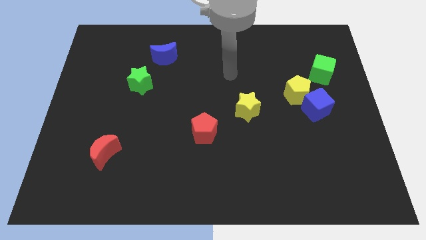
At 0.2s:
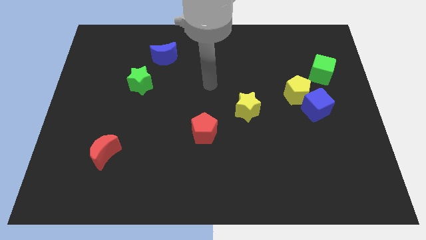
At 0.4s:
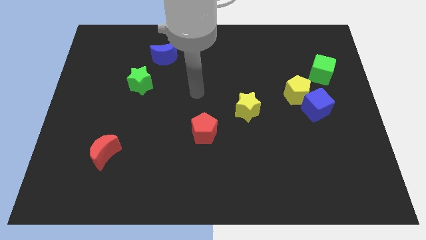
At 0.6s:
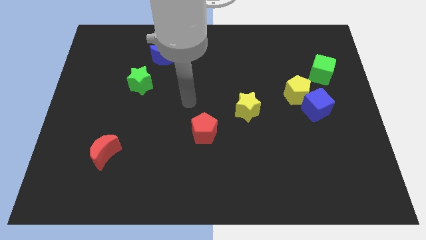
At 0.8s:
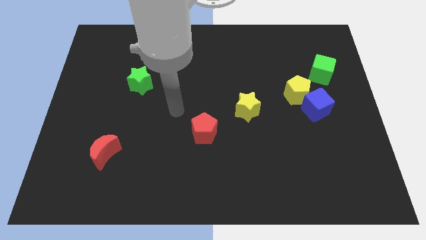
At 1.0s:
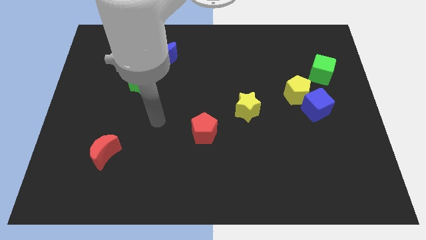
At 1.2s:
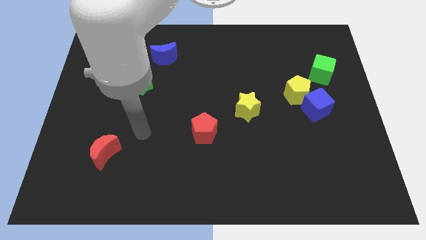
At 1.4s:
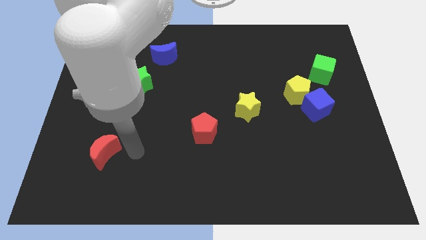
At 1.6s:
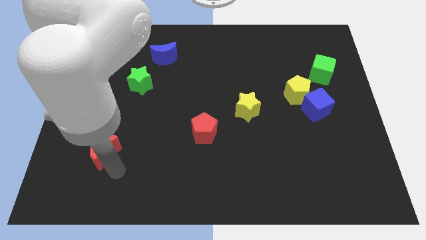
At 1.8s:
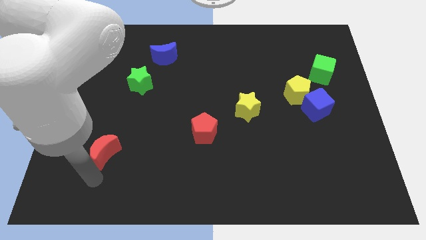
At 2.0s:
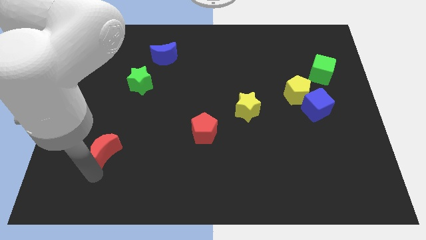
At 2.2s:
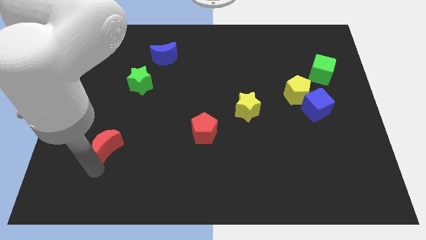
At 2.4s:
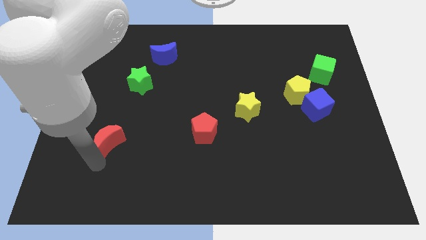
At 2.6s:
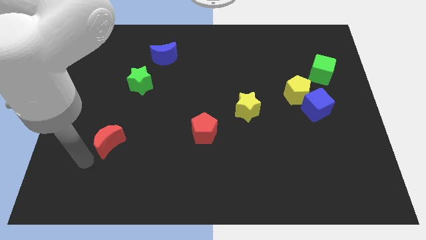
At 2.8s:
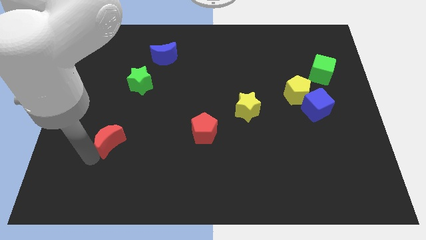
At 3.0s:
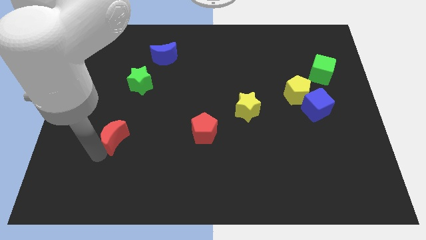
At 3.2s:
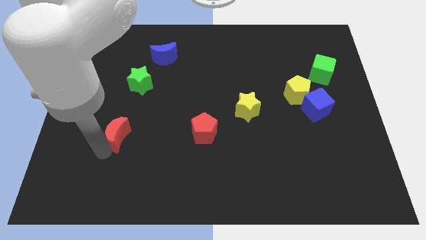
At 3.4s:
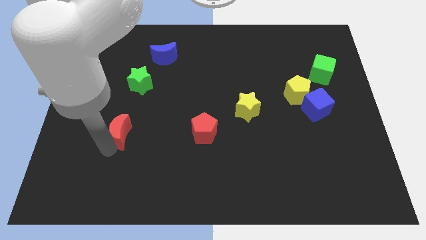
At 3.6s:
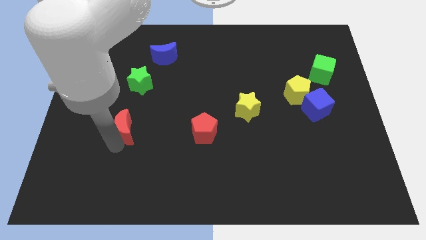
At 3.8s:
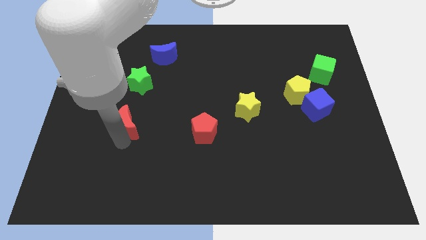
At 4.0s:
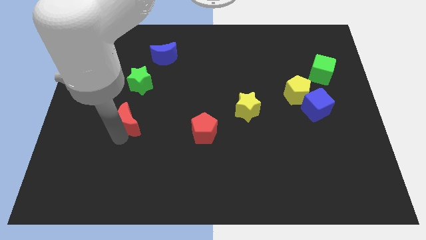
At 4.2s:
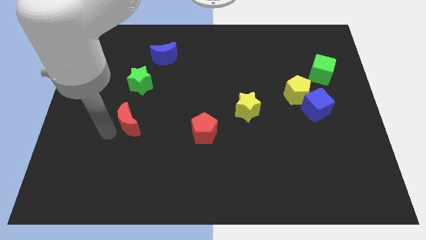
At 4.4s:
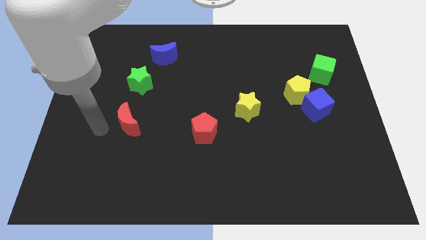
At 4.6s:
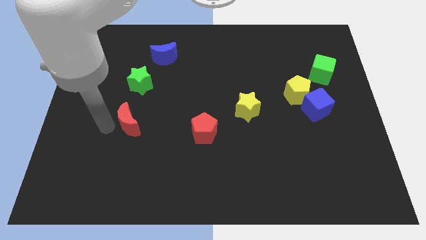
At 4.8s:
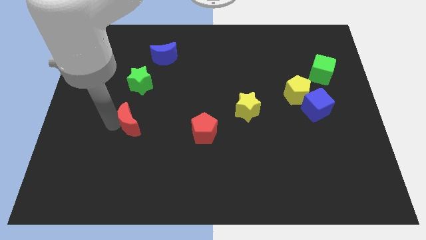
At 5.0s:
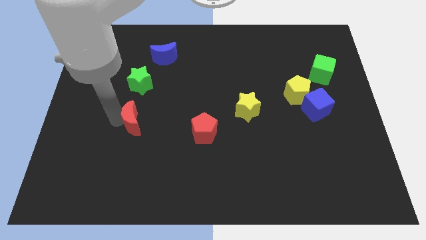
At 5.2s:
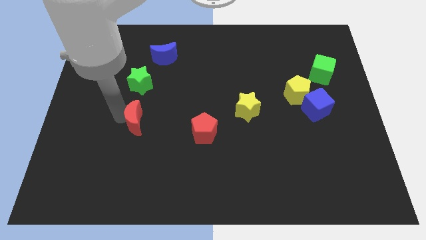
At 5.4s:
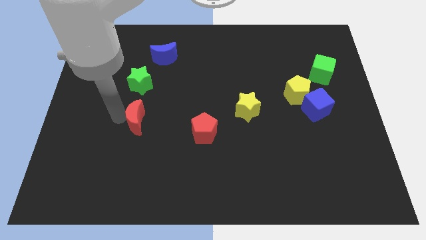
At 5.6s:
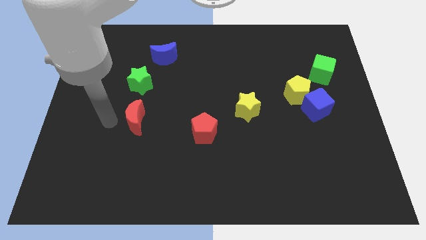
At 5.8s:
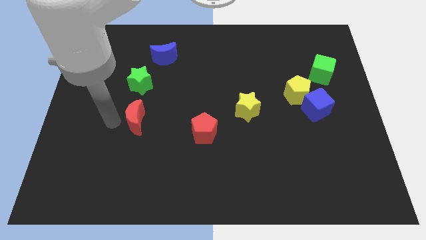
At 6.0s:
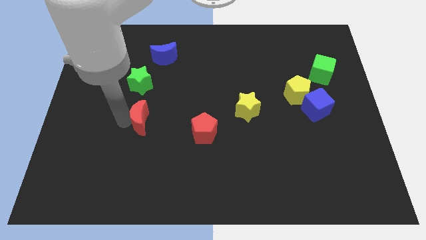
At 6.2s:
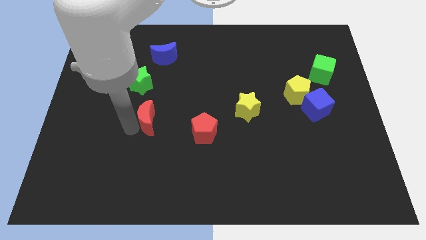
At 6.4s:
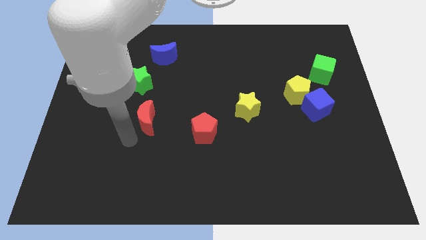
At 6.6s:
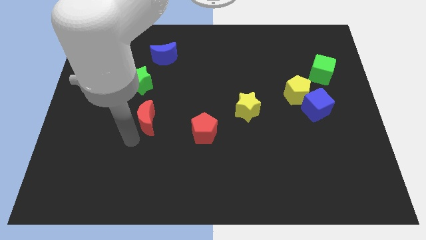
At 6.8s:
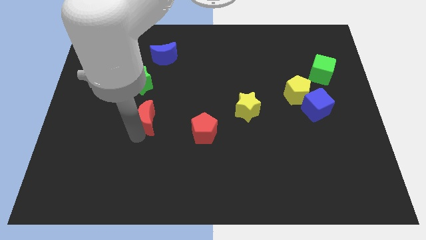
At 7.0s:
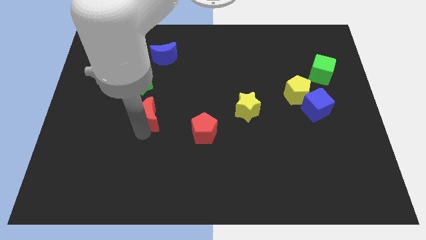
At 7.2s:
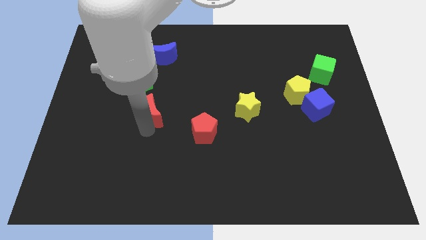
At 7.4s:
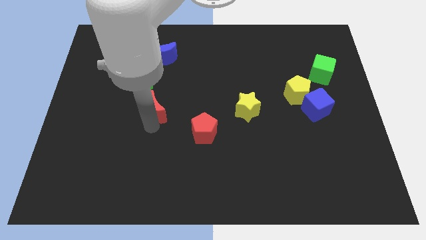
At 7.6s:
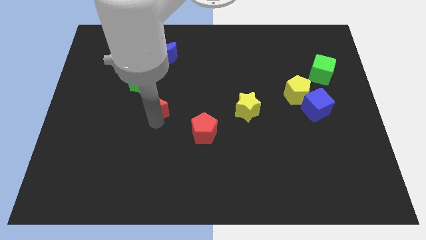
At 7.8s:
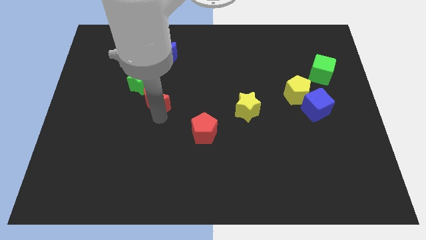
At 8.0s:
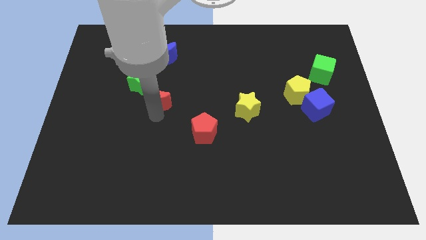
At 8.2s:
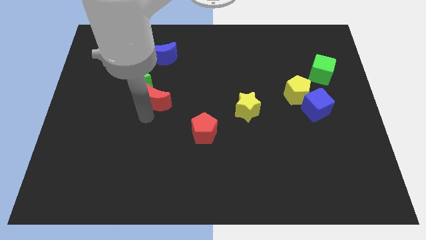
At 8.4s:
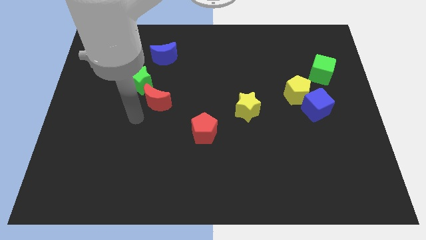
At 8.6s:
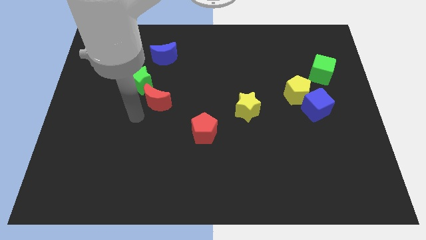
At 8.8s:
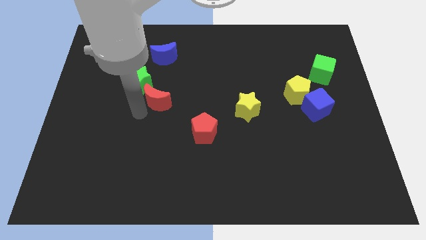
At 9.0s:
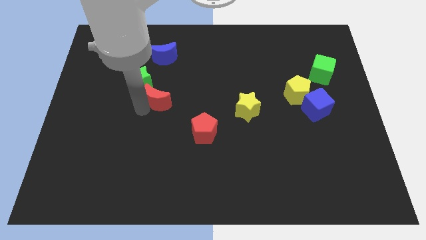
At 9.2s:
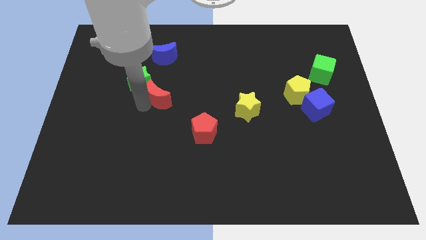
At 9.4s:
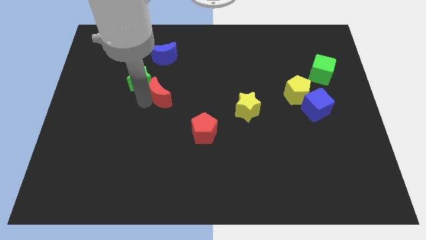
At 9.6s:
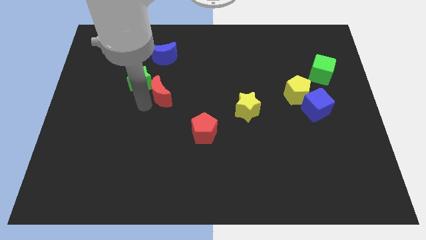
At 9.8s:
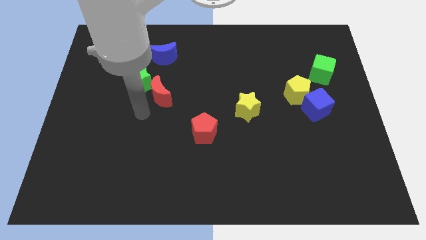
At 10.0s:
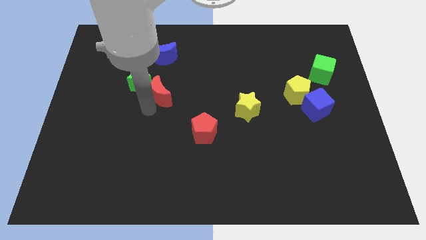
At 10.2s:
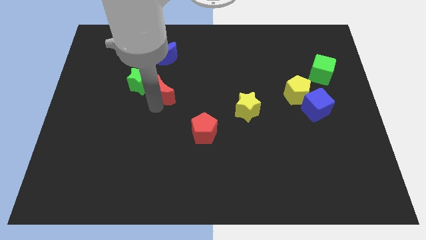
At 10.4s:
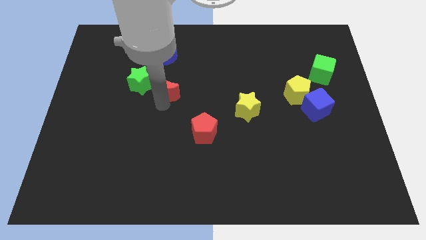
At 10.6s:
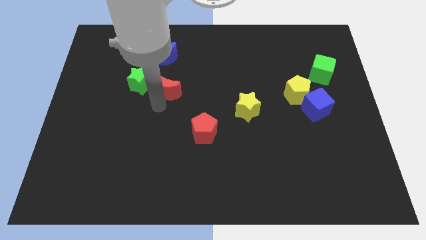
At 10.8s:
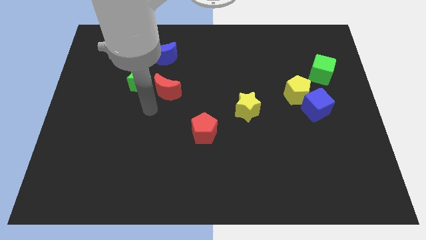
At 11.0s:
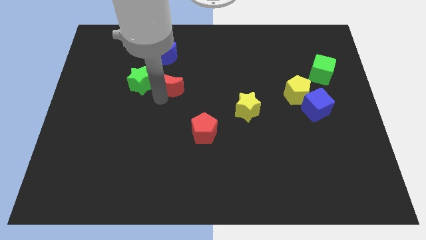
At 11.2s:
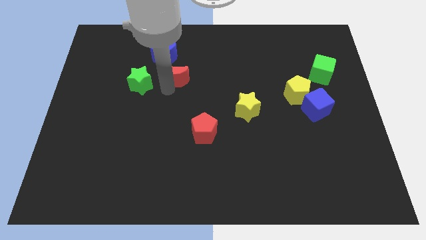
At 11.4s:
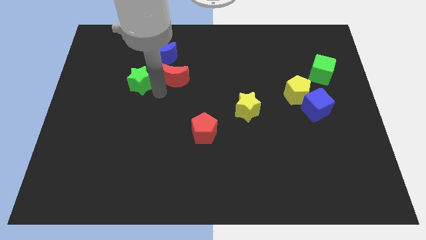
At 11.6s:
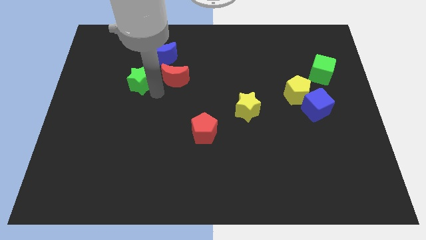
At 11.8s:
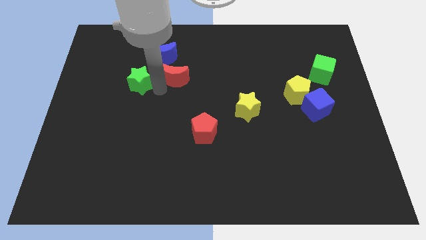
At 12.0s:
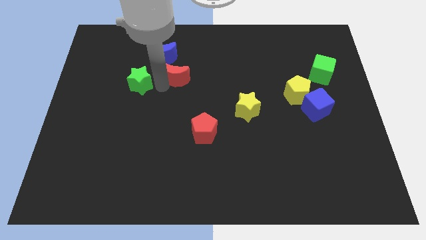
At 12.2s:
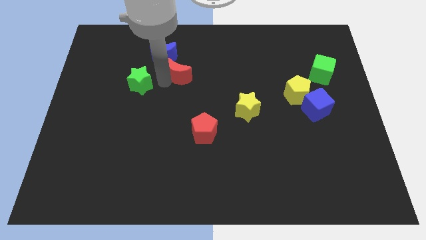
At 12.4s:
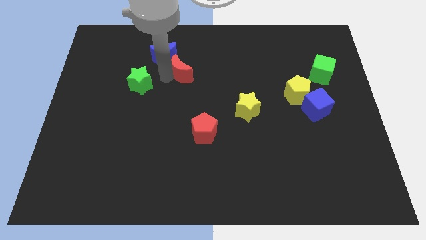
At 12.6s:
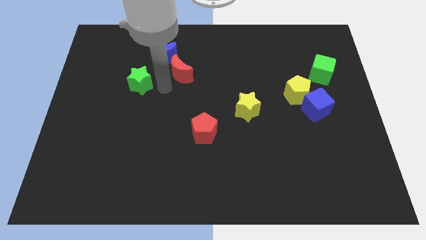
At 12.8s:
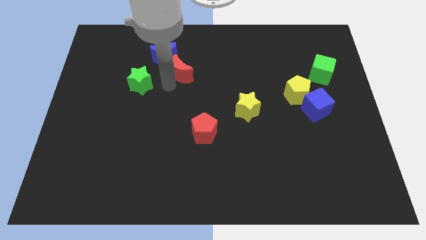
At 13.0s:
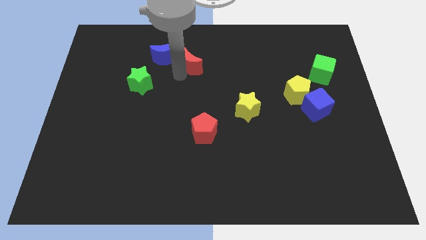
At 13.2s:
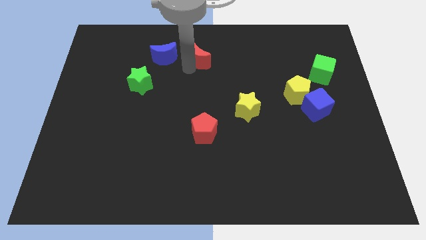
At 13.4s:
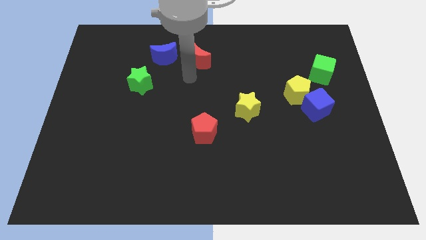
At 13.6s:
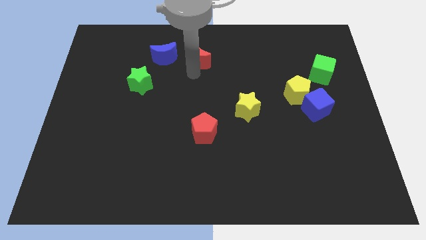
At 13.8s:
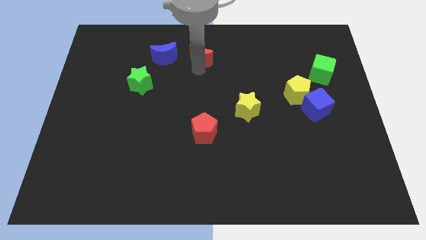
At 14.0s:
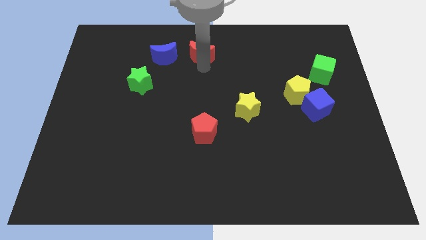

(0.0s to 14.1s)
slide the red moon to the top side
